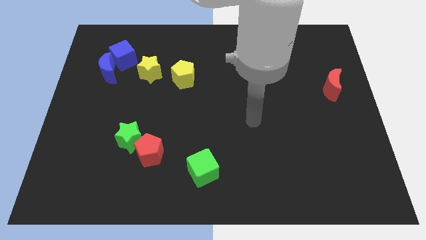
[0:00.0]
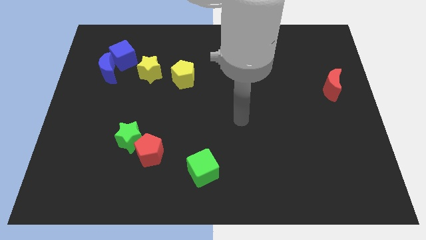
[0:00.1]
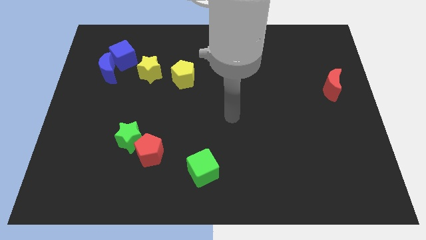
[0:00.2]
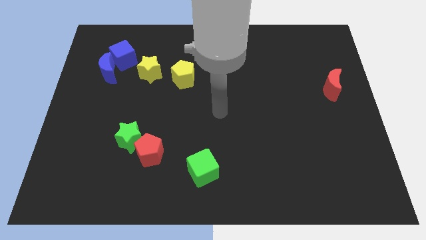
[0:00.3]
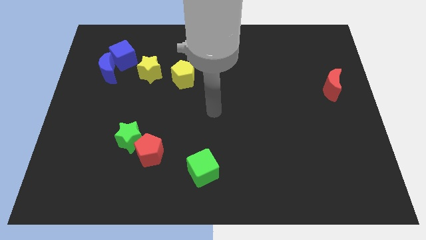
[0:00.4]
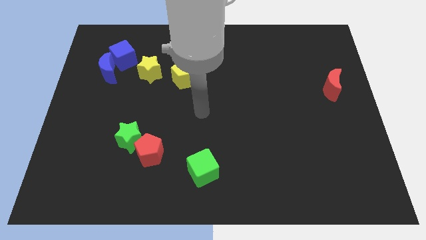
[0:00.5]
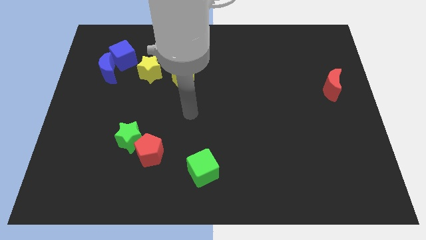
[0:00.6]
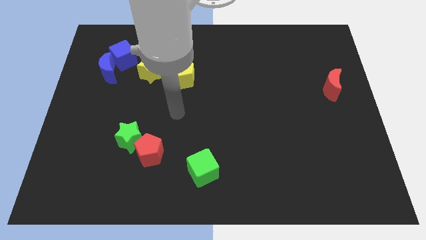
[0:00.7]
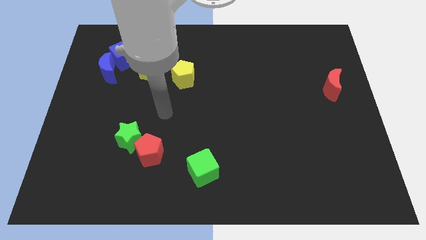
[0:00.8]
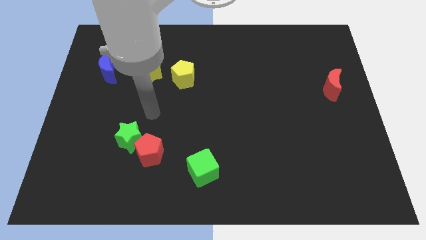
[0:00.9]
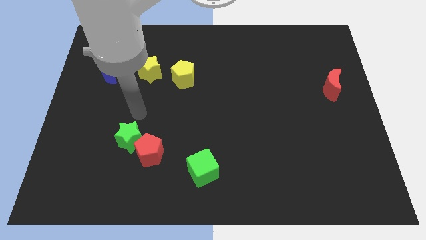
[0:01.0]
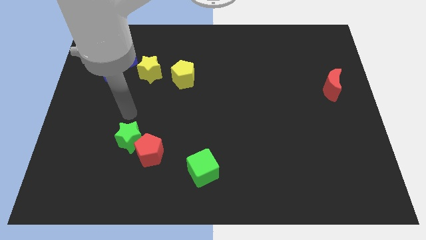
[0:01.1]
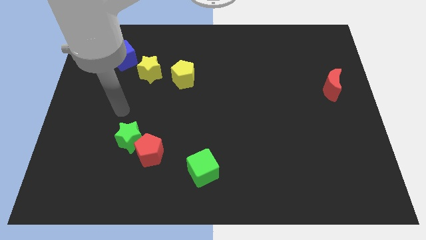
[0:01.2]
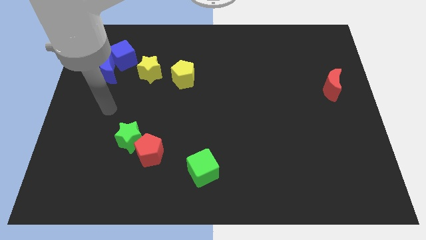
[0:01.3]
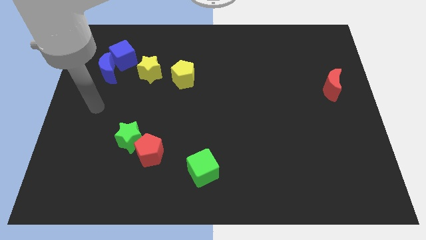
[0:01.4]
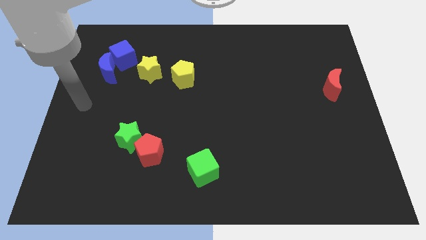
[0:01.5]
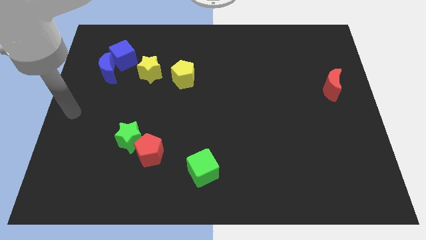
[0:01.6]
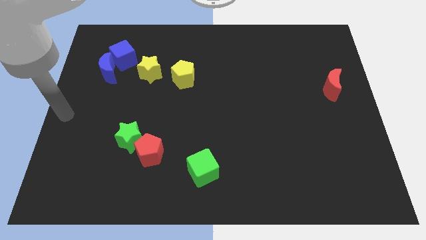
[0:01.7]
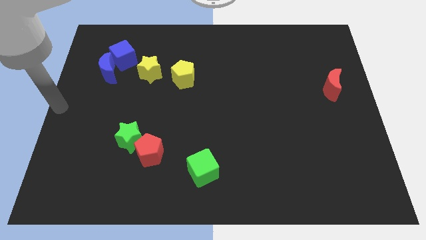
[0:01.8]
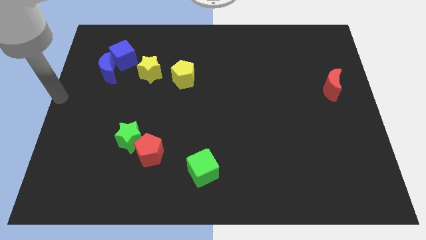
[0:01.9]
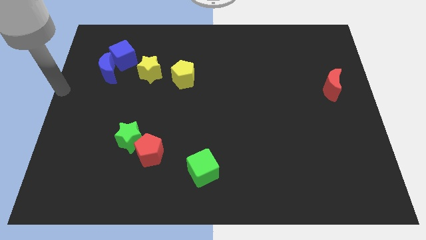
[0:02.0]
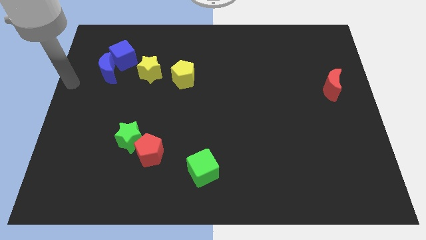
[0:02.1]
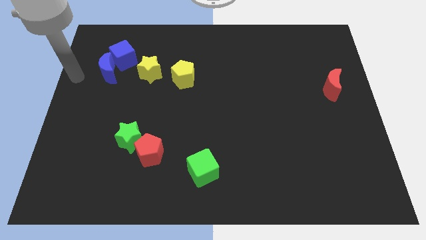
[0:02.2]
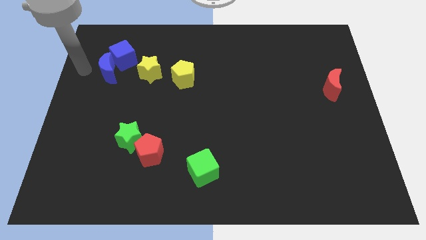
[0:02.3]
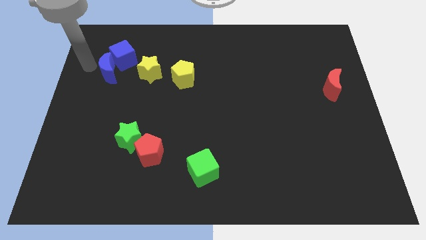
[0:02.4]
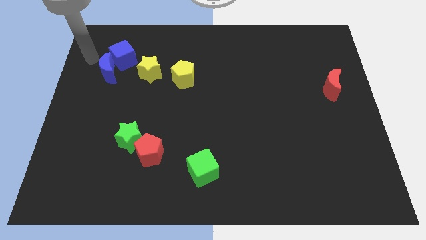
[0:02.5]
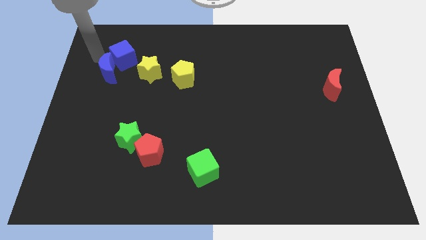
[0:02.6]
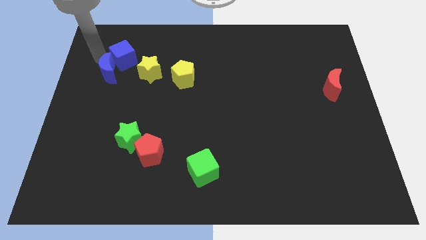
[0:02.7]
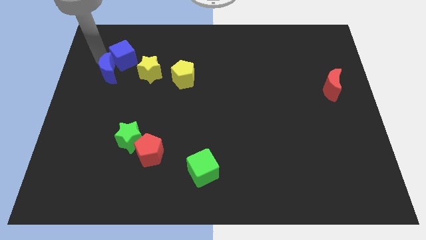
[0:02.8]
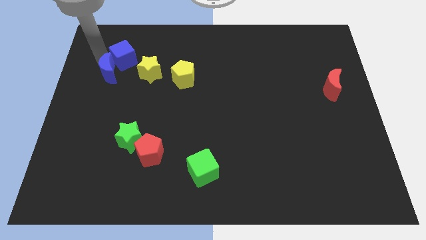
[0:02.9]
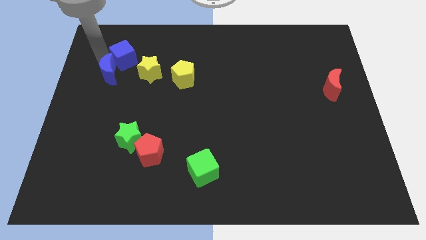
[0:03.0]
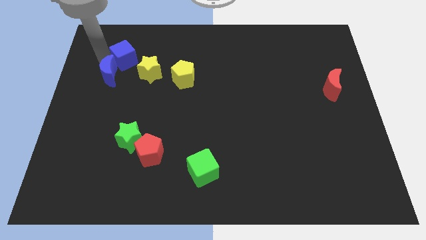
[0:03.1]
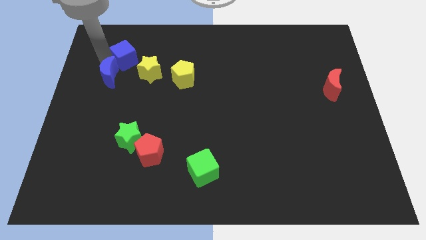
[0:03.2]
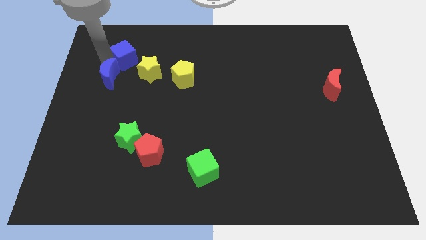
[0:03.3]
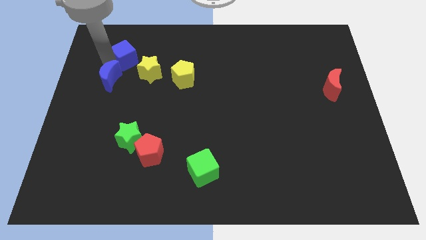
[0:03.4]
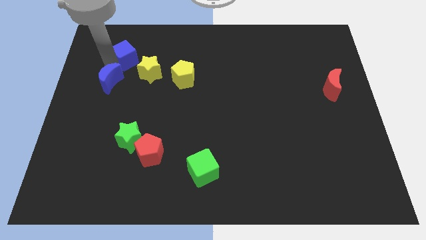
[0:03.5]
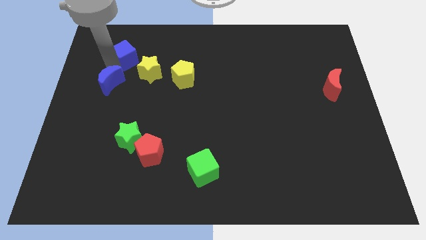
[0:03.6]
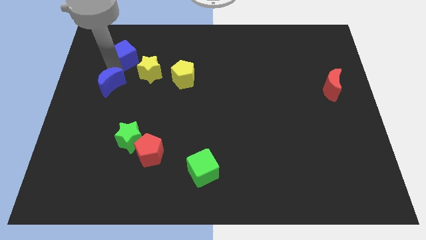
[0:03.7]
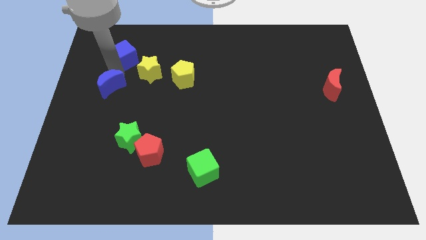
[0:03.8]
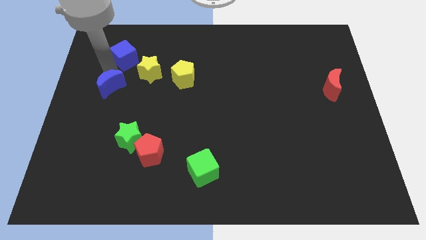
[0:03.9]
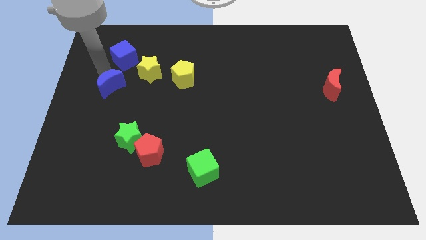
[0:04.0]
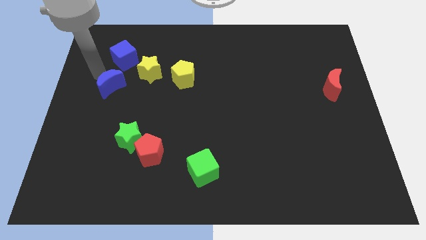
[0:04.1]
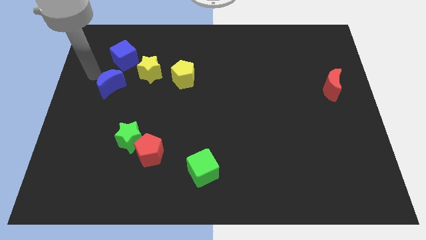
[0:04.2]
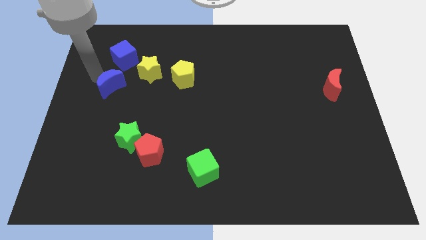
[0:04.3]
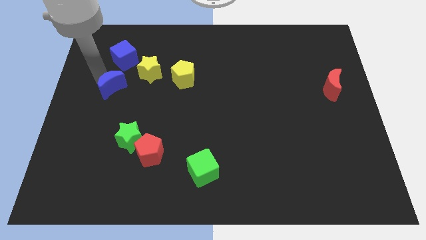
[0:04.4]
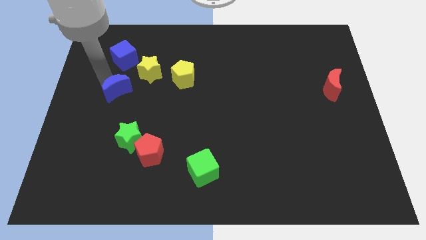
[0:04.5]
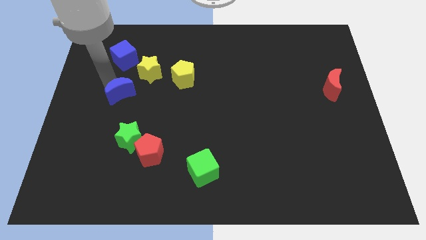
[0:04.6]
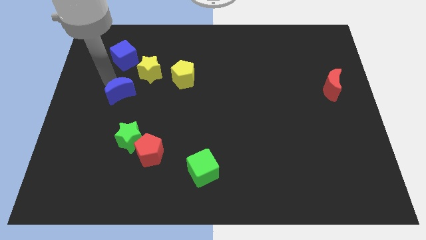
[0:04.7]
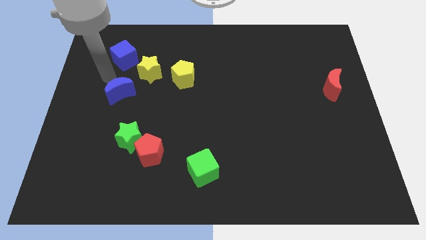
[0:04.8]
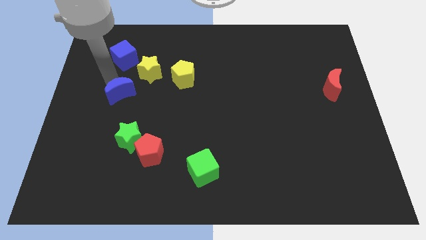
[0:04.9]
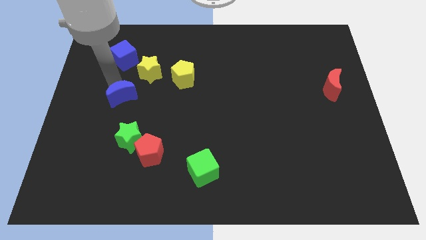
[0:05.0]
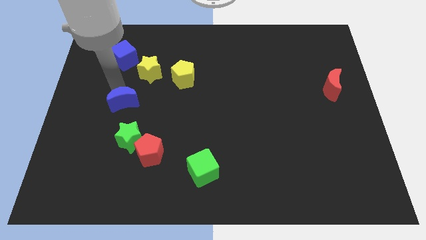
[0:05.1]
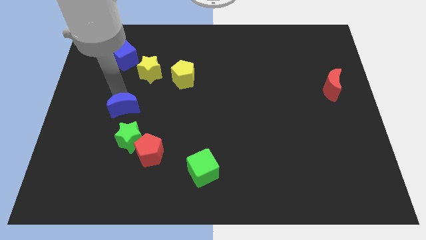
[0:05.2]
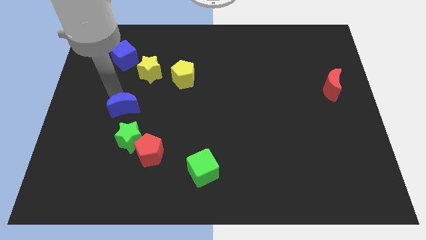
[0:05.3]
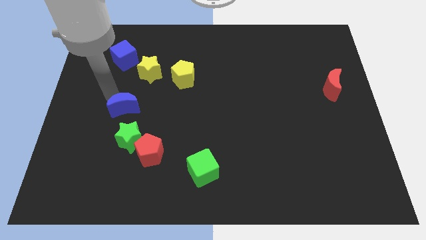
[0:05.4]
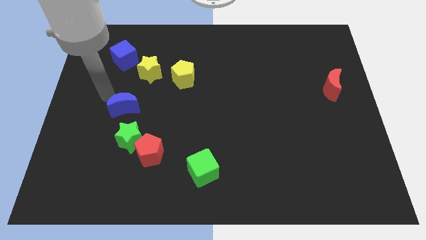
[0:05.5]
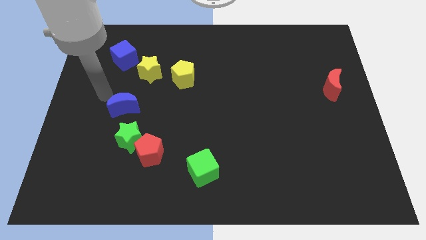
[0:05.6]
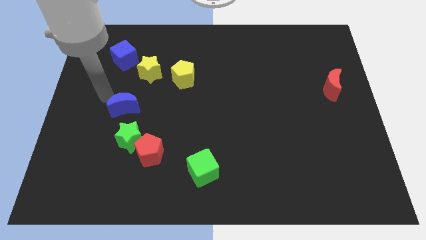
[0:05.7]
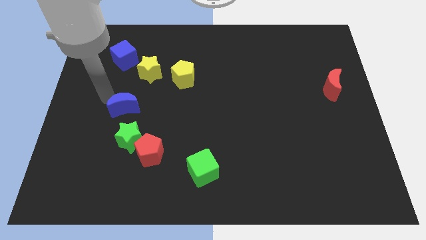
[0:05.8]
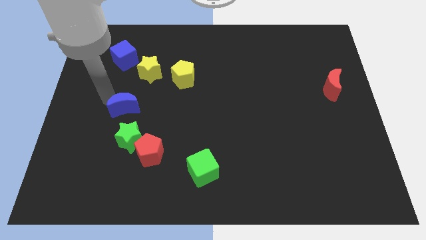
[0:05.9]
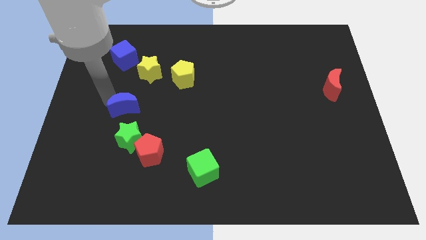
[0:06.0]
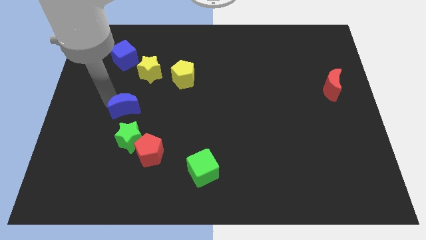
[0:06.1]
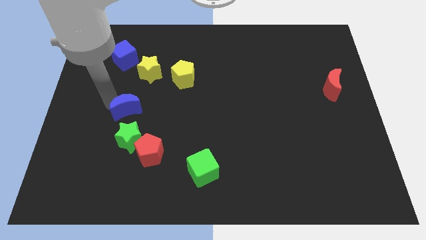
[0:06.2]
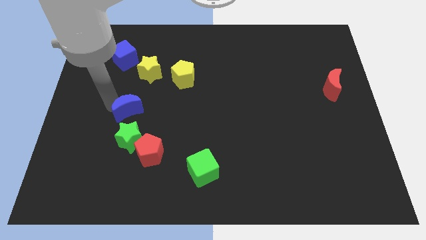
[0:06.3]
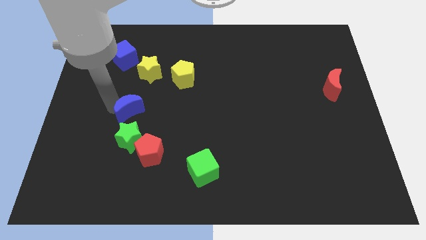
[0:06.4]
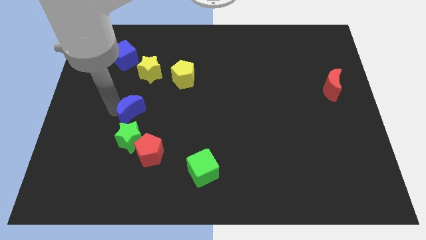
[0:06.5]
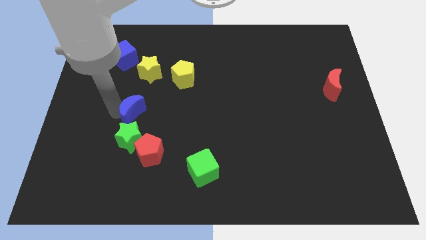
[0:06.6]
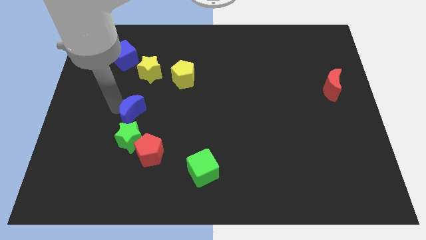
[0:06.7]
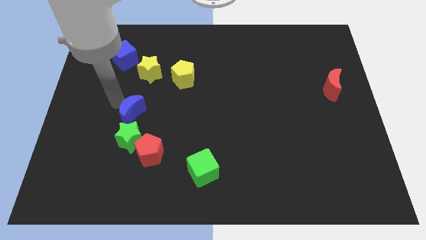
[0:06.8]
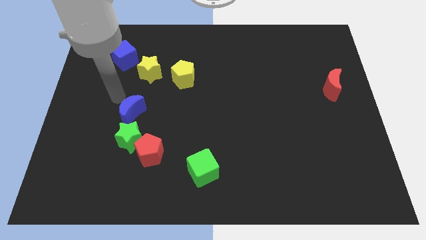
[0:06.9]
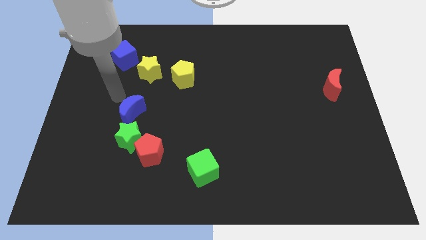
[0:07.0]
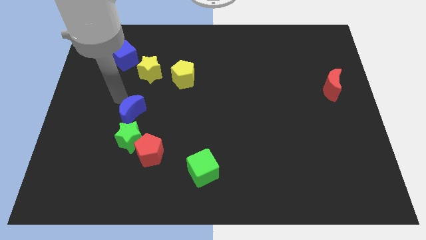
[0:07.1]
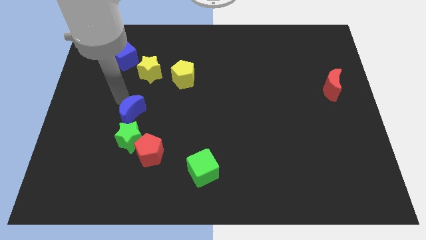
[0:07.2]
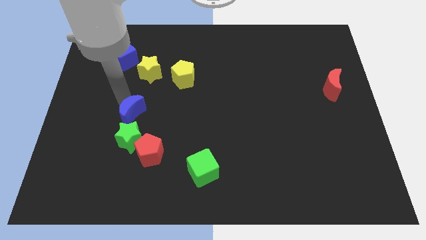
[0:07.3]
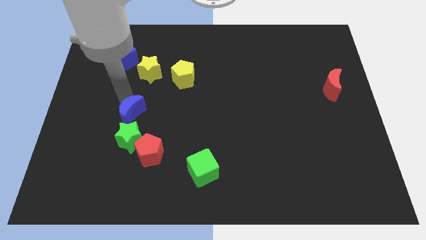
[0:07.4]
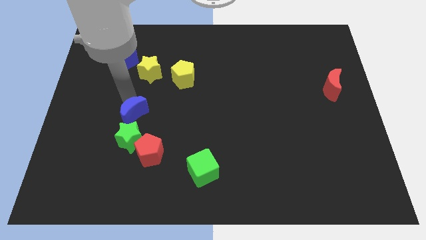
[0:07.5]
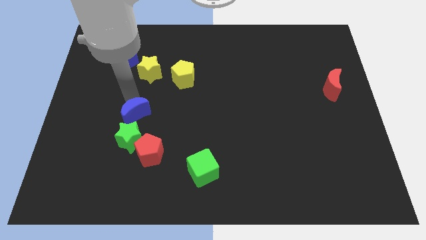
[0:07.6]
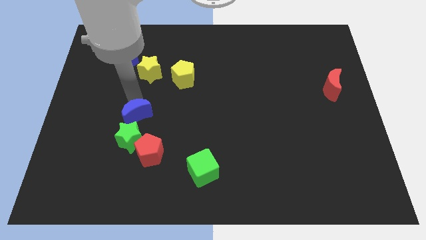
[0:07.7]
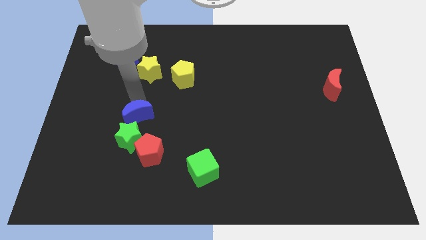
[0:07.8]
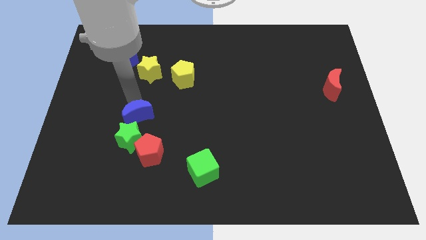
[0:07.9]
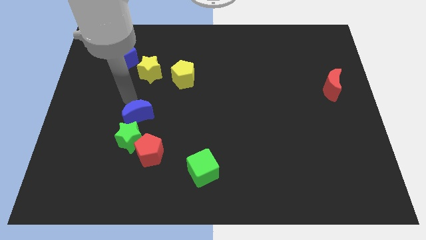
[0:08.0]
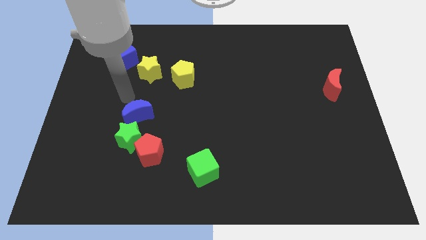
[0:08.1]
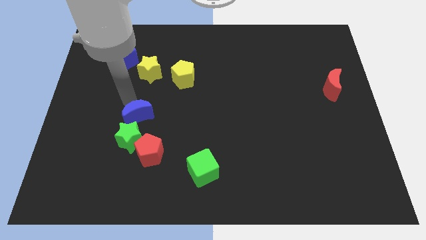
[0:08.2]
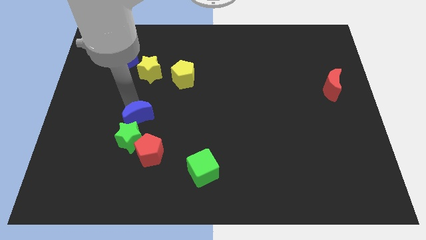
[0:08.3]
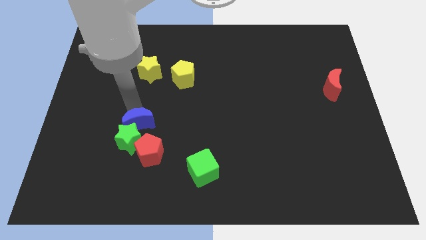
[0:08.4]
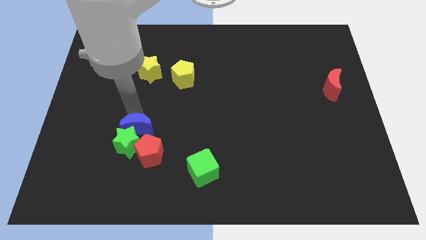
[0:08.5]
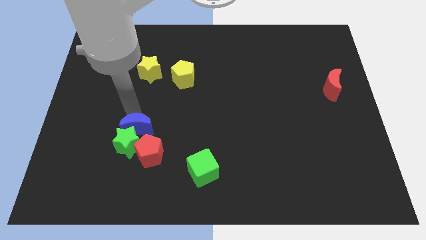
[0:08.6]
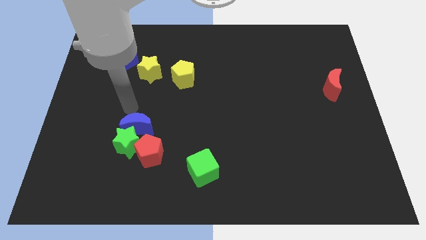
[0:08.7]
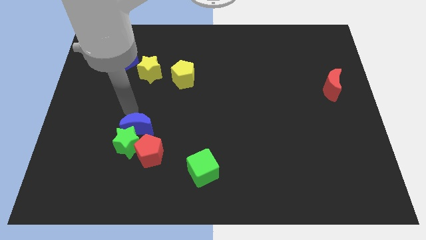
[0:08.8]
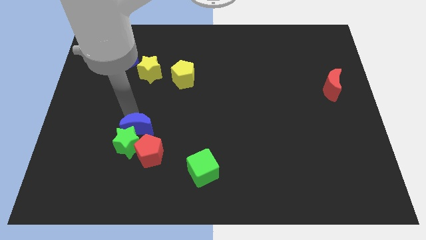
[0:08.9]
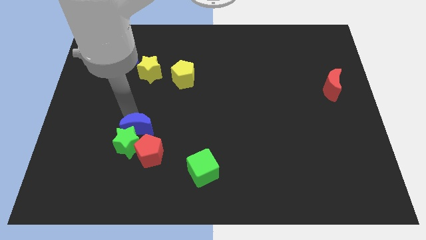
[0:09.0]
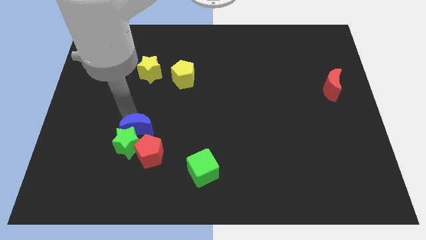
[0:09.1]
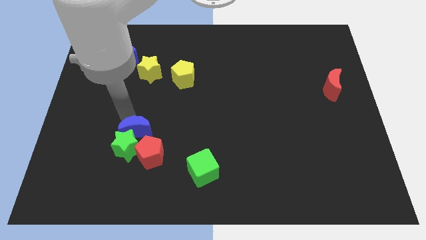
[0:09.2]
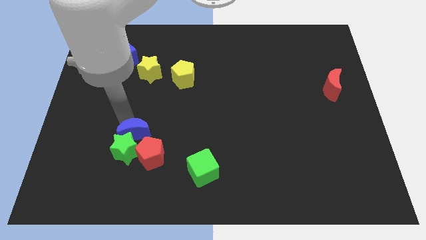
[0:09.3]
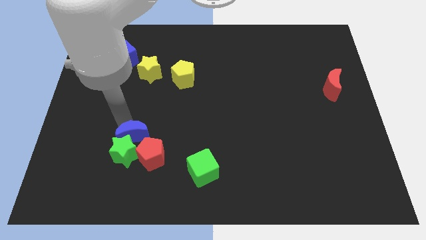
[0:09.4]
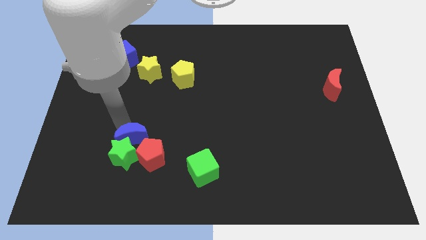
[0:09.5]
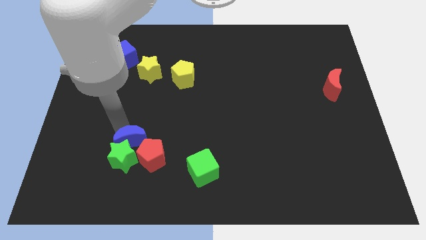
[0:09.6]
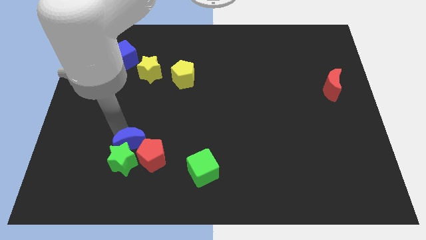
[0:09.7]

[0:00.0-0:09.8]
push the blue moon close to the red pentagon
